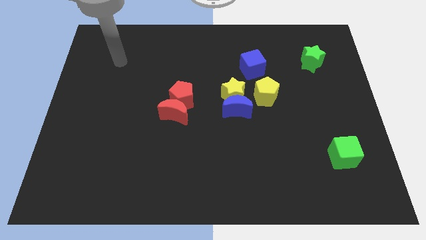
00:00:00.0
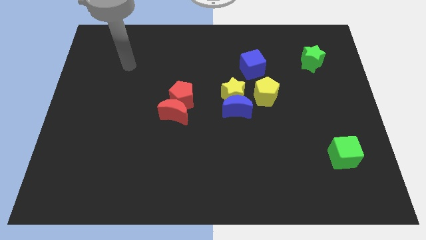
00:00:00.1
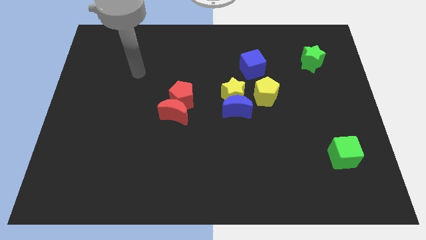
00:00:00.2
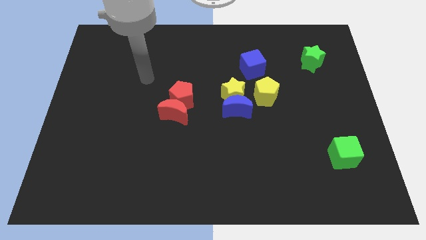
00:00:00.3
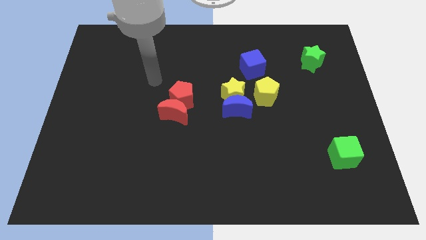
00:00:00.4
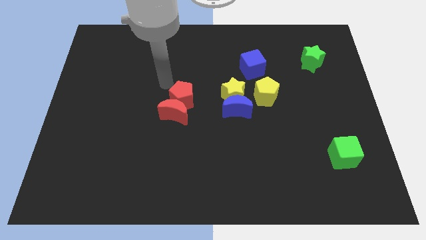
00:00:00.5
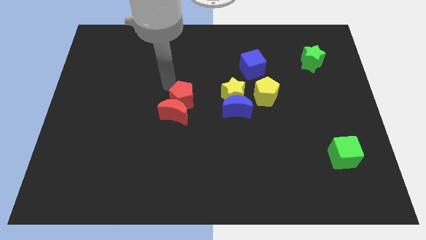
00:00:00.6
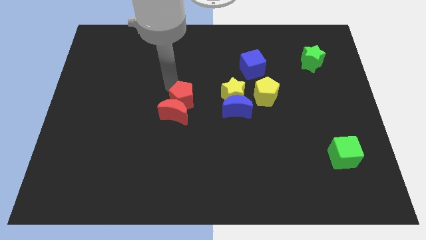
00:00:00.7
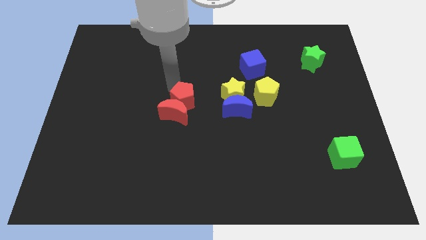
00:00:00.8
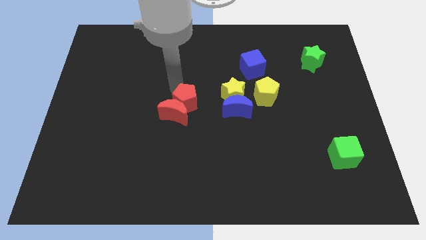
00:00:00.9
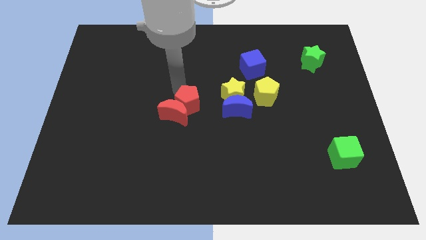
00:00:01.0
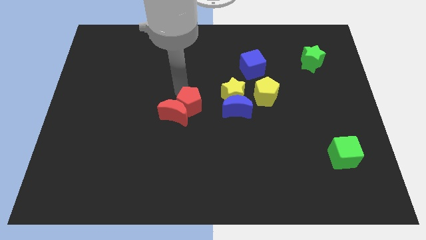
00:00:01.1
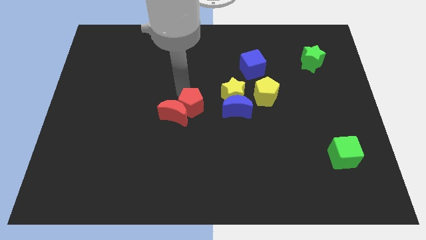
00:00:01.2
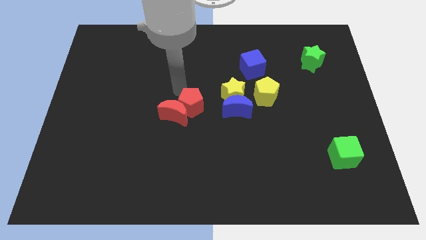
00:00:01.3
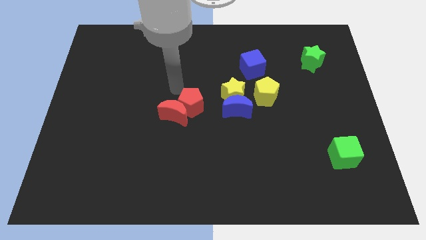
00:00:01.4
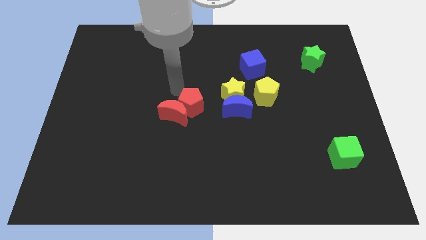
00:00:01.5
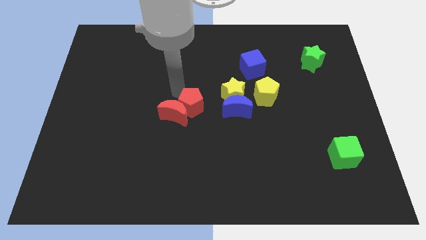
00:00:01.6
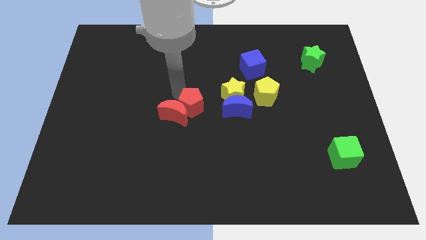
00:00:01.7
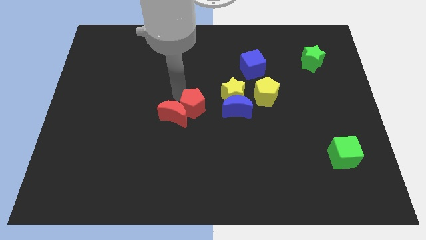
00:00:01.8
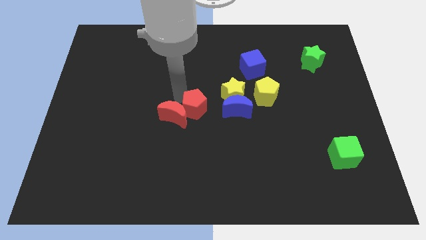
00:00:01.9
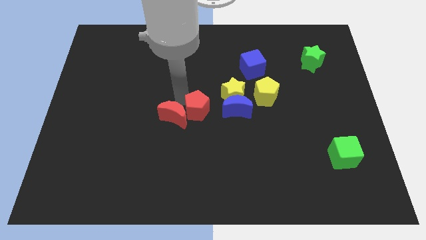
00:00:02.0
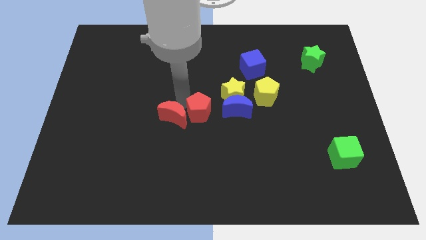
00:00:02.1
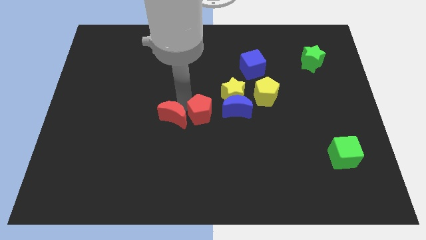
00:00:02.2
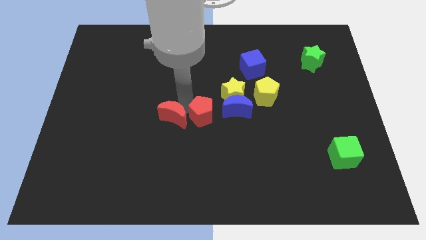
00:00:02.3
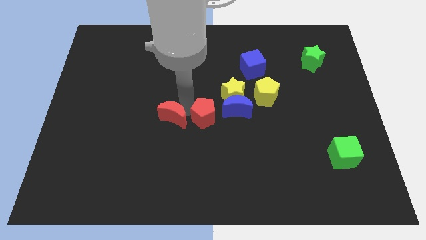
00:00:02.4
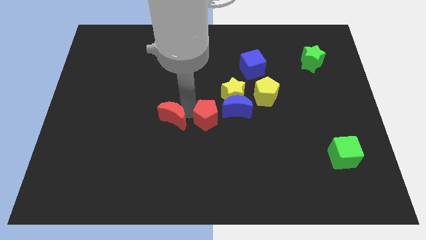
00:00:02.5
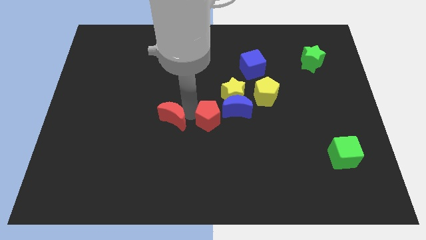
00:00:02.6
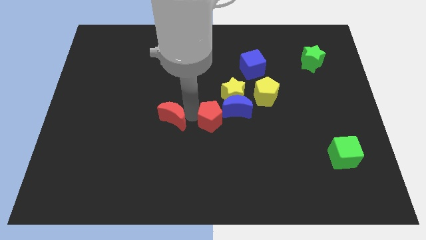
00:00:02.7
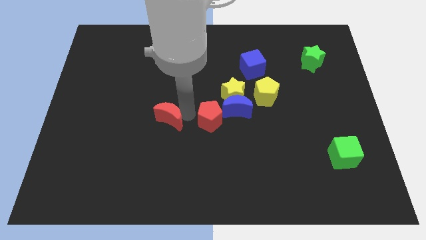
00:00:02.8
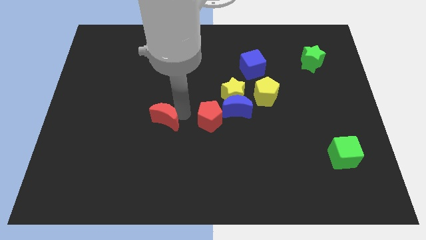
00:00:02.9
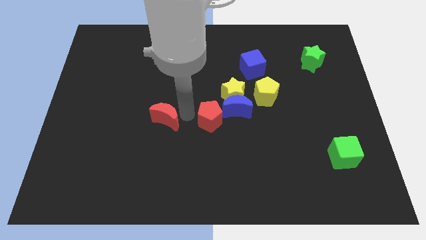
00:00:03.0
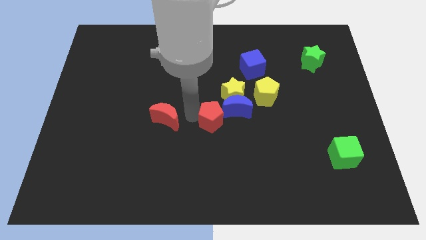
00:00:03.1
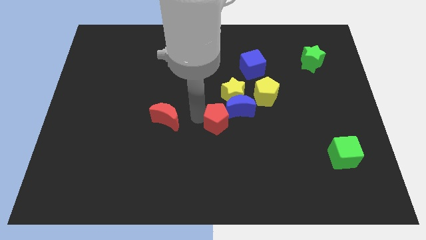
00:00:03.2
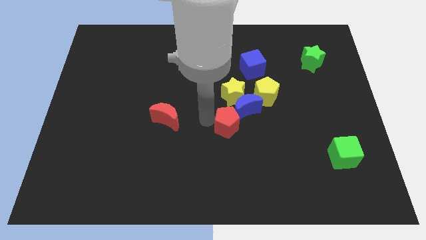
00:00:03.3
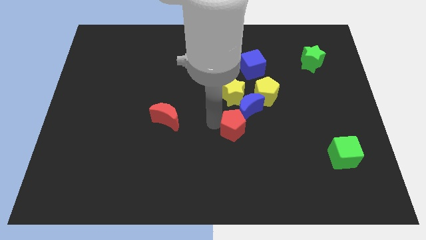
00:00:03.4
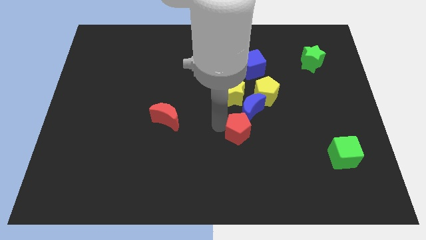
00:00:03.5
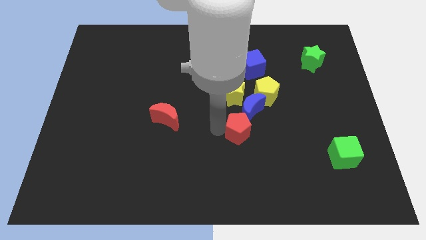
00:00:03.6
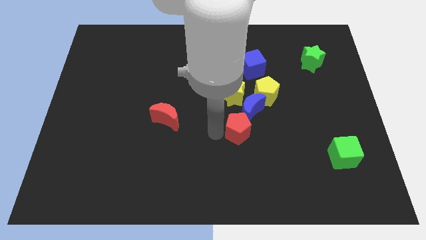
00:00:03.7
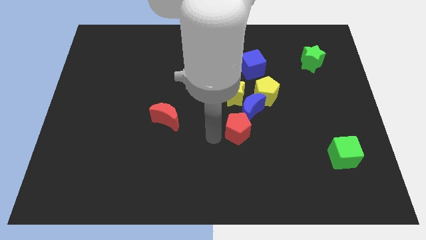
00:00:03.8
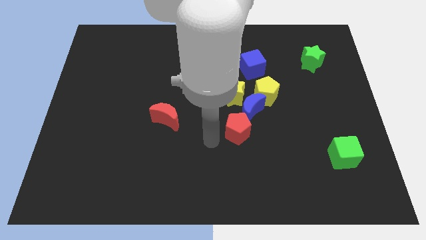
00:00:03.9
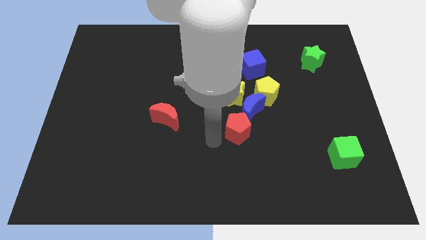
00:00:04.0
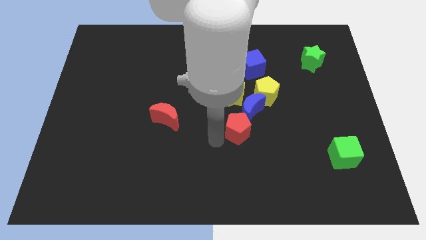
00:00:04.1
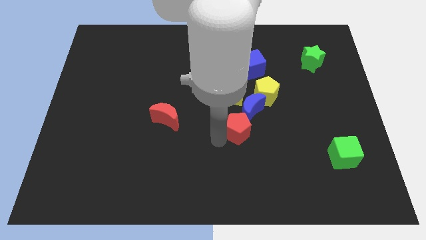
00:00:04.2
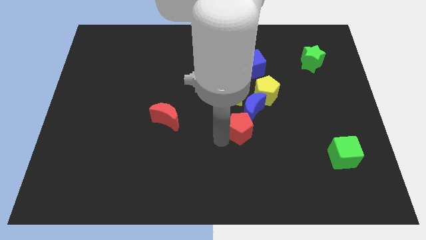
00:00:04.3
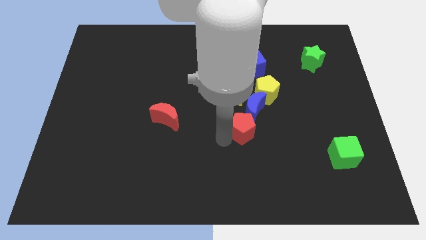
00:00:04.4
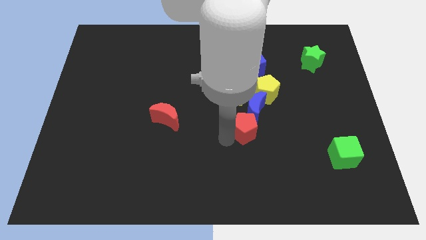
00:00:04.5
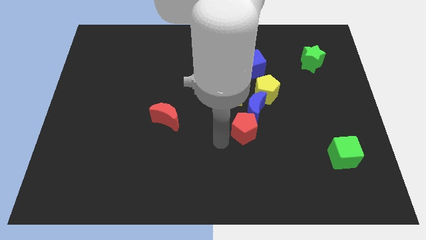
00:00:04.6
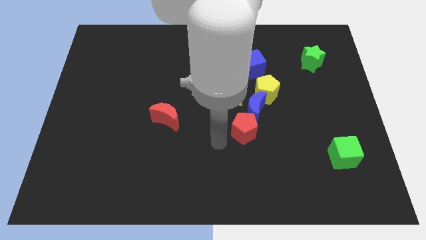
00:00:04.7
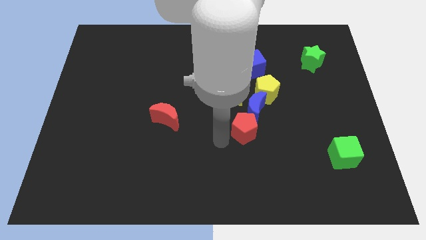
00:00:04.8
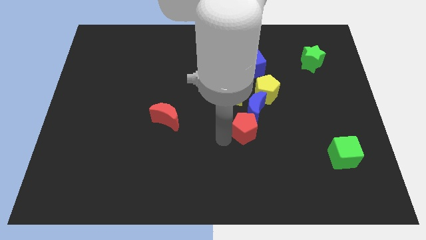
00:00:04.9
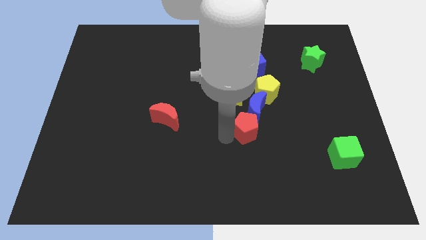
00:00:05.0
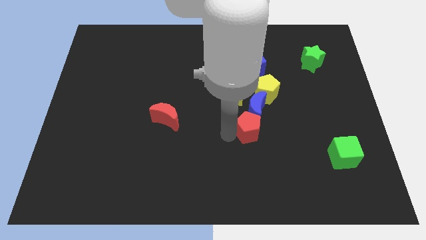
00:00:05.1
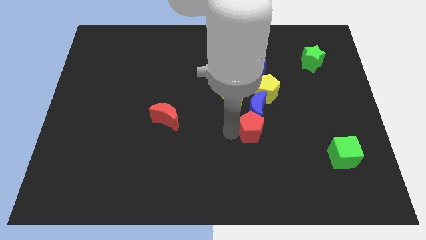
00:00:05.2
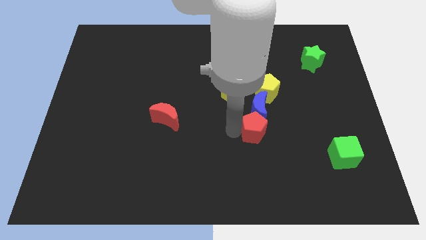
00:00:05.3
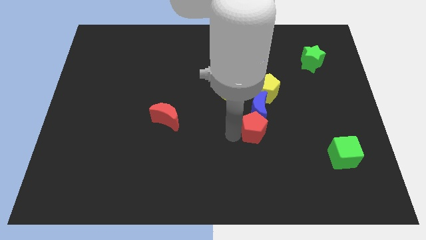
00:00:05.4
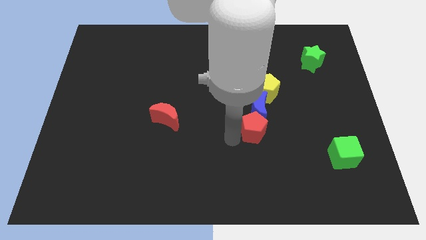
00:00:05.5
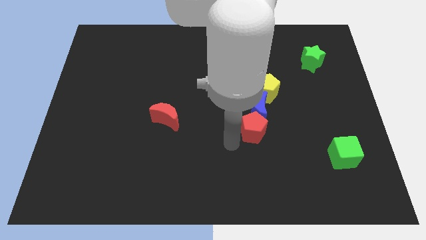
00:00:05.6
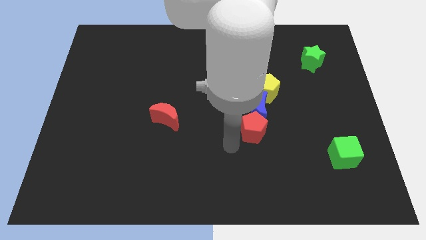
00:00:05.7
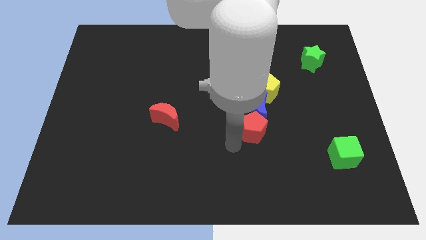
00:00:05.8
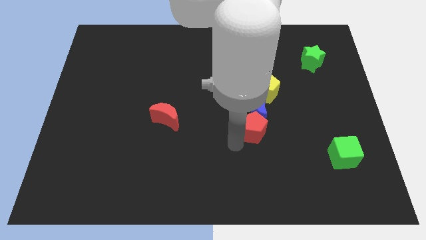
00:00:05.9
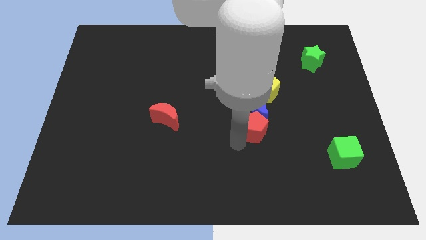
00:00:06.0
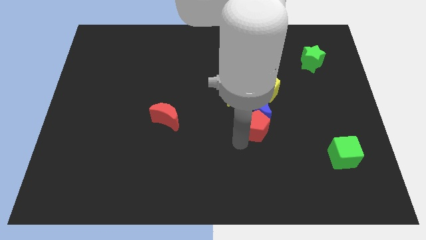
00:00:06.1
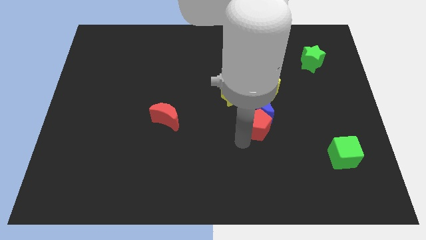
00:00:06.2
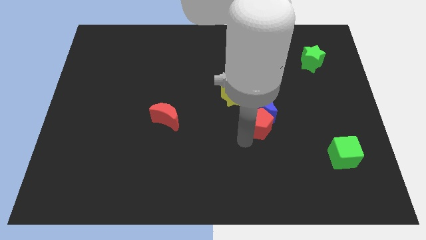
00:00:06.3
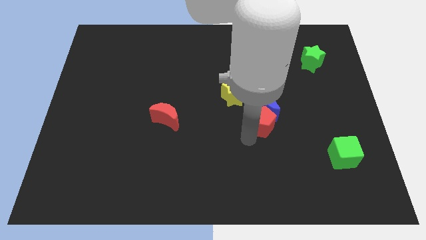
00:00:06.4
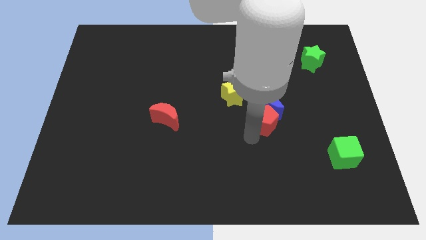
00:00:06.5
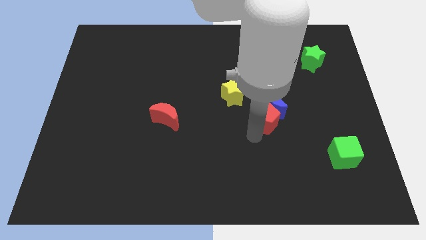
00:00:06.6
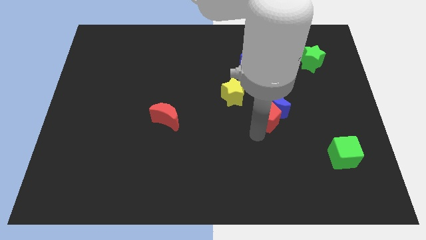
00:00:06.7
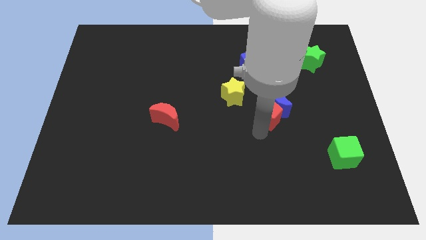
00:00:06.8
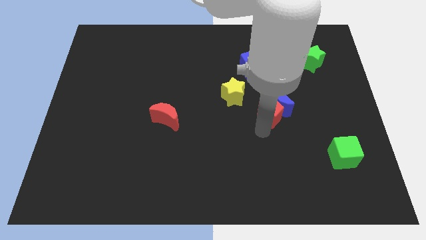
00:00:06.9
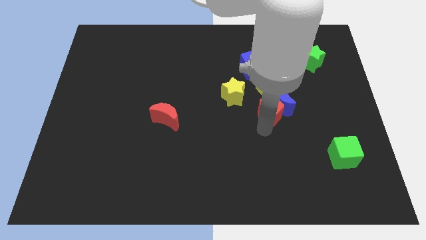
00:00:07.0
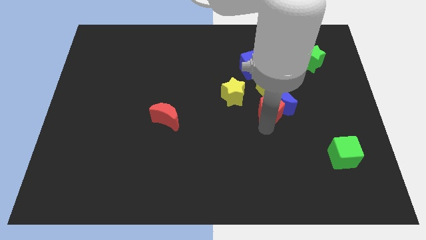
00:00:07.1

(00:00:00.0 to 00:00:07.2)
push the red pentagon to the right

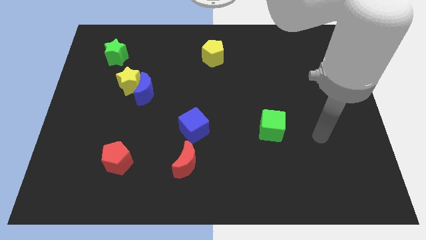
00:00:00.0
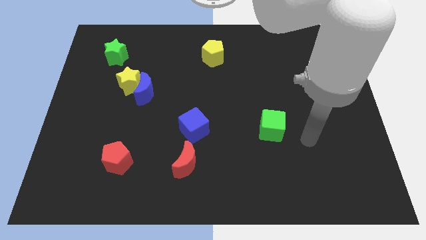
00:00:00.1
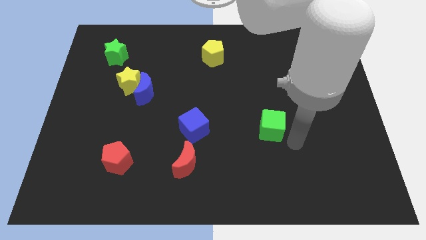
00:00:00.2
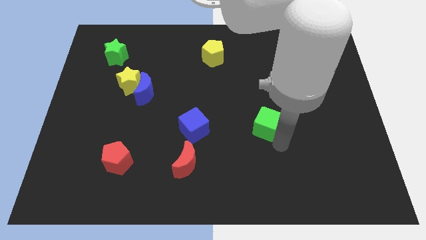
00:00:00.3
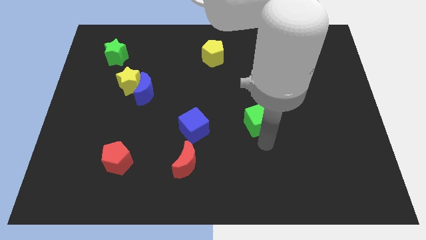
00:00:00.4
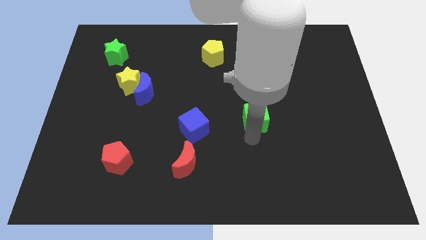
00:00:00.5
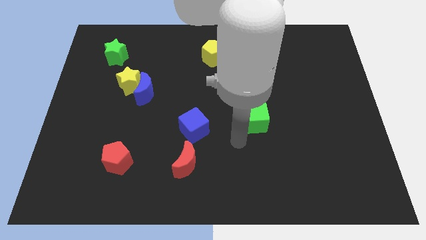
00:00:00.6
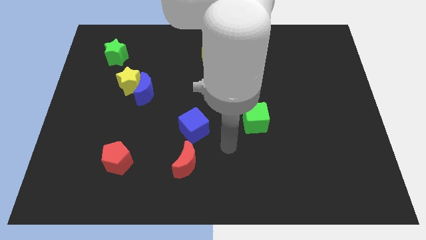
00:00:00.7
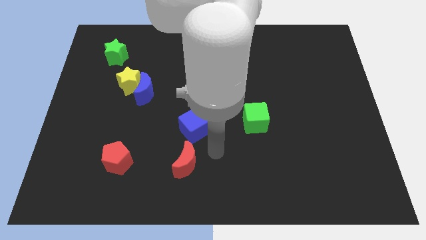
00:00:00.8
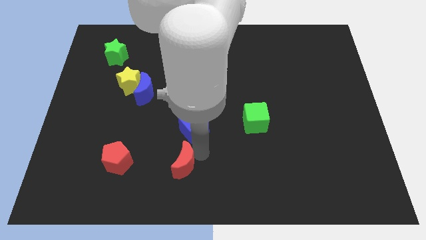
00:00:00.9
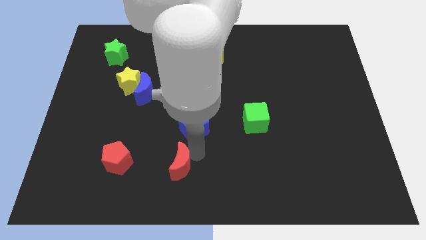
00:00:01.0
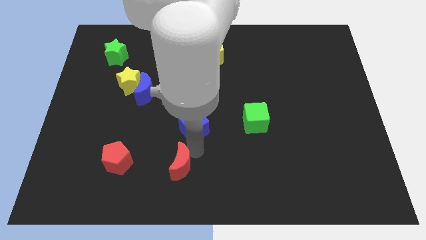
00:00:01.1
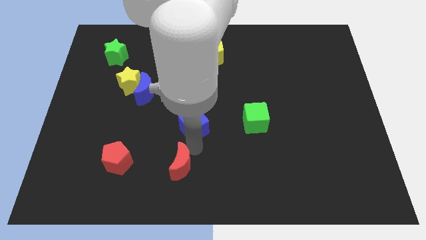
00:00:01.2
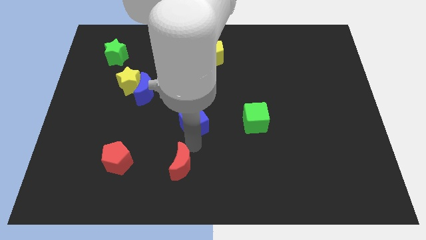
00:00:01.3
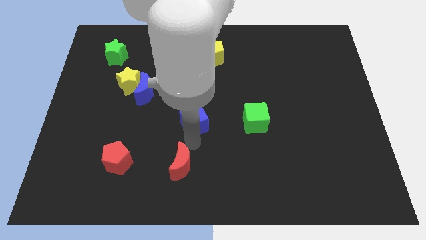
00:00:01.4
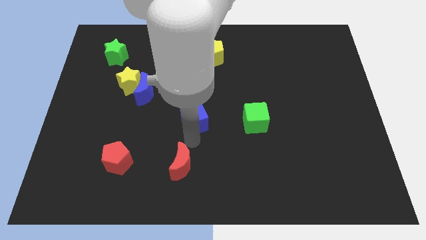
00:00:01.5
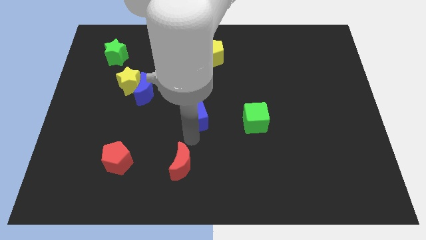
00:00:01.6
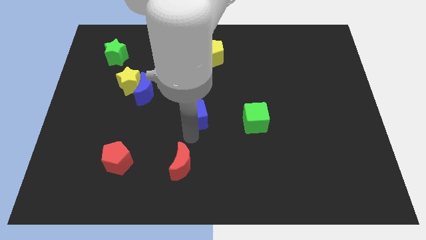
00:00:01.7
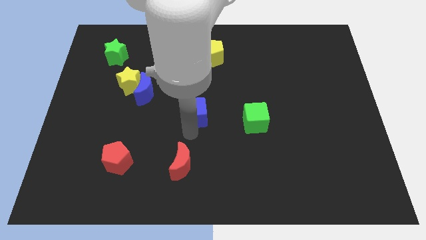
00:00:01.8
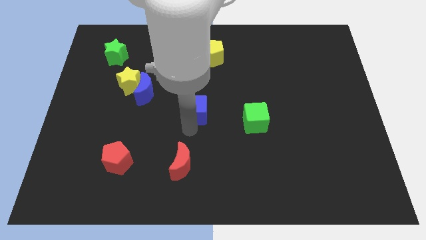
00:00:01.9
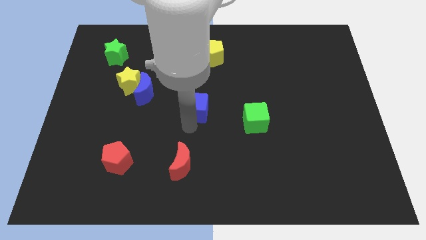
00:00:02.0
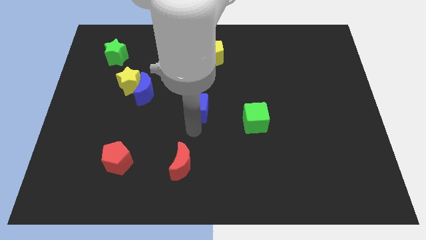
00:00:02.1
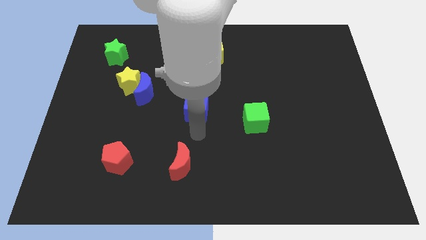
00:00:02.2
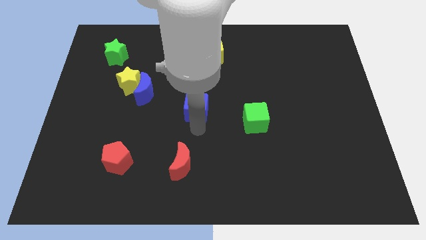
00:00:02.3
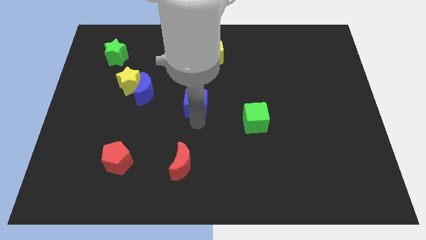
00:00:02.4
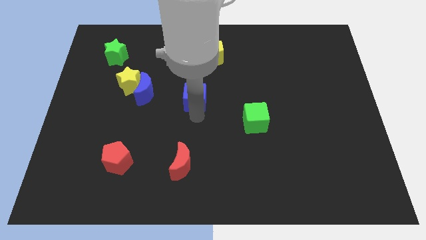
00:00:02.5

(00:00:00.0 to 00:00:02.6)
push the blue cube a little upwards
